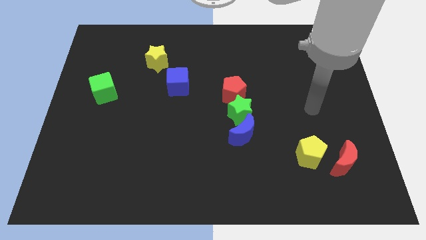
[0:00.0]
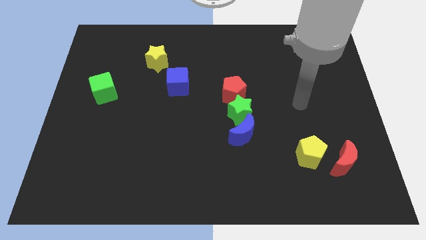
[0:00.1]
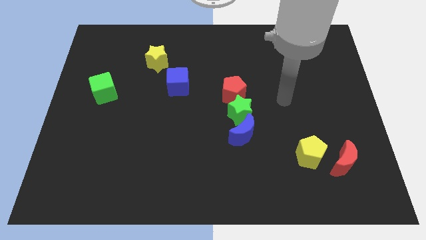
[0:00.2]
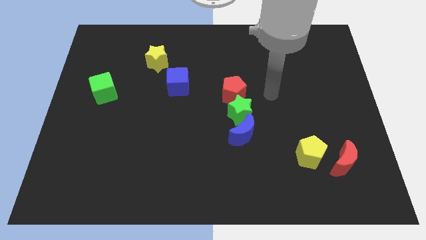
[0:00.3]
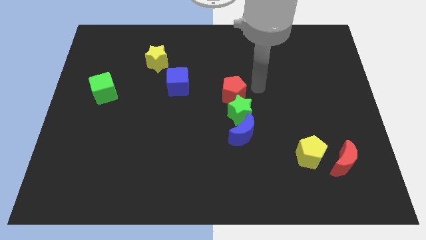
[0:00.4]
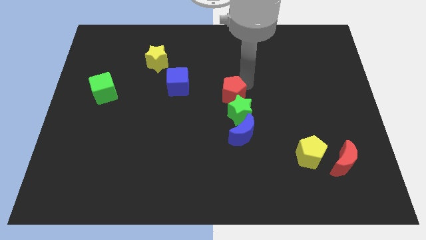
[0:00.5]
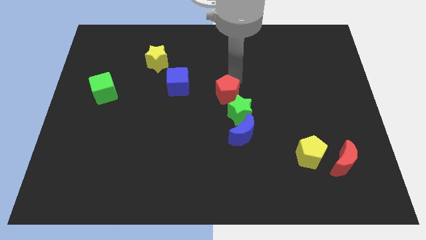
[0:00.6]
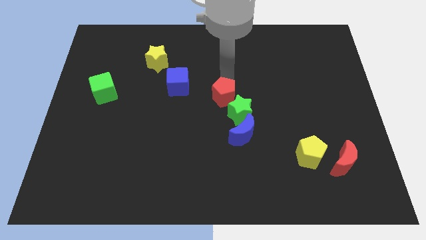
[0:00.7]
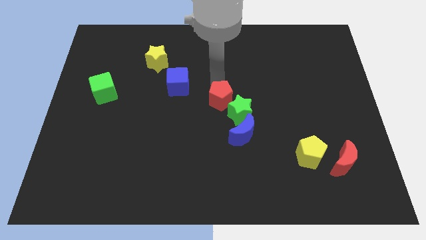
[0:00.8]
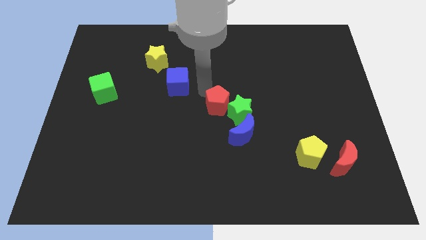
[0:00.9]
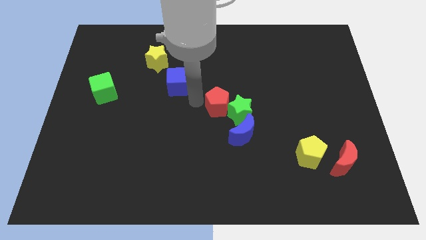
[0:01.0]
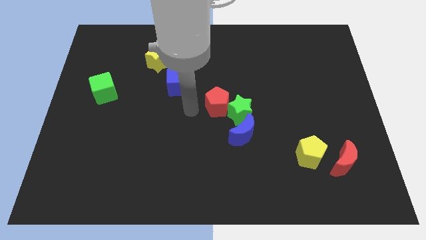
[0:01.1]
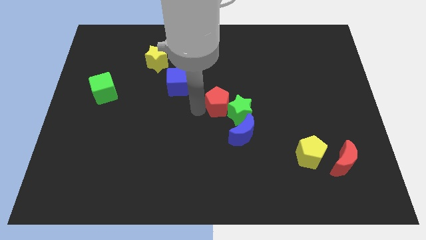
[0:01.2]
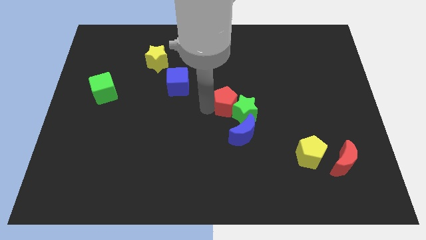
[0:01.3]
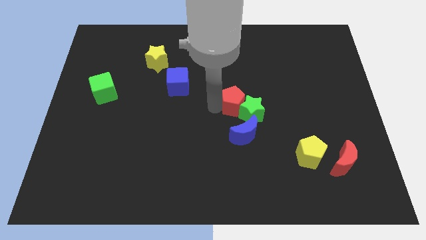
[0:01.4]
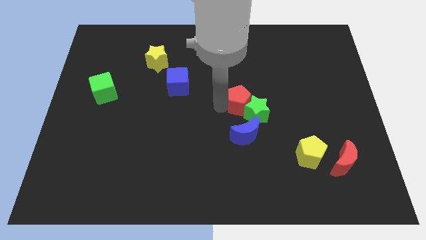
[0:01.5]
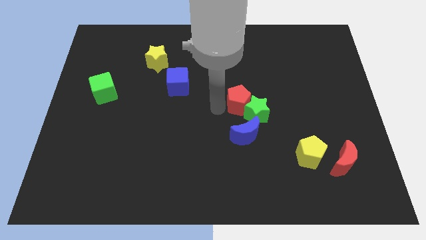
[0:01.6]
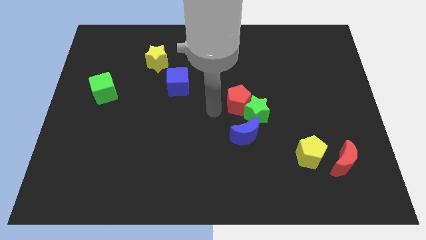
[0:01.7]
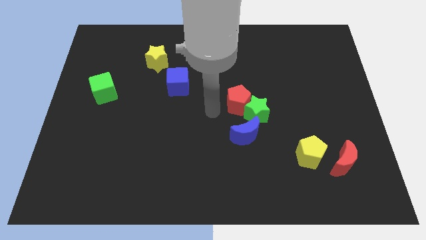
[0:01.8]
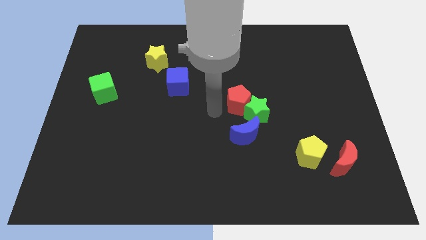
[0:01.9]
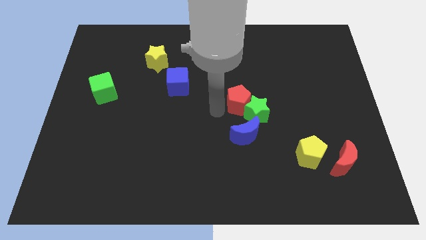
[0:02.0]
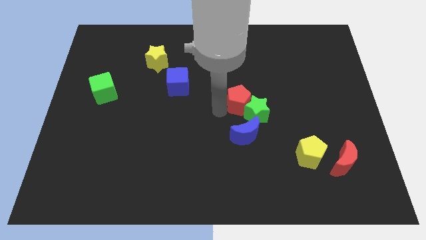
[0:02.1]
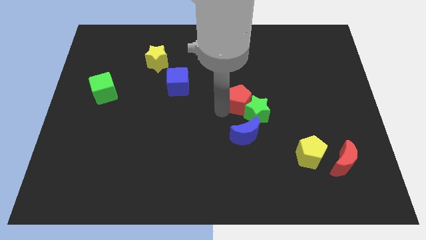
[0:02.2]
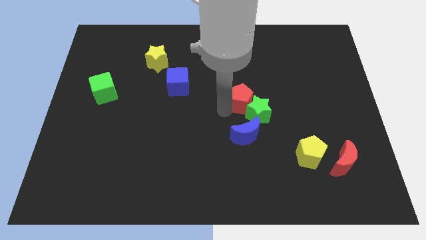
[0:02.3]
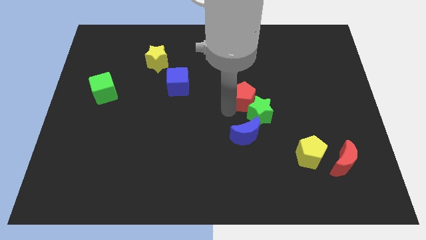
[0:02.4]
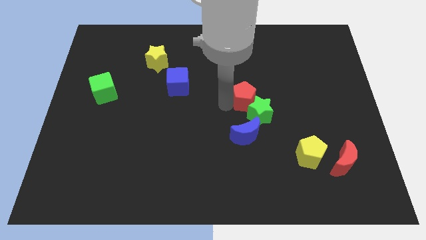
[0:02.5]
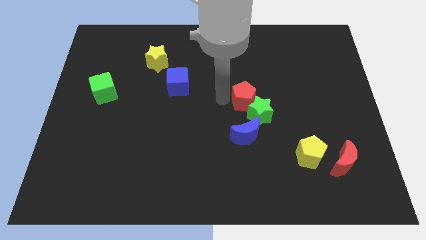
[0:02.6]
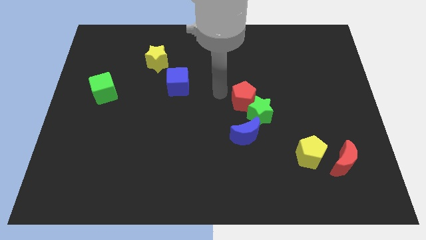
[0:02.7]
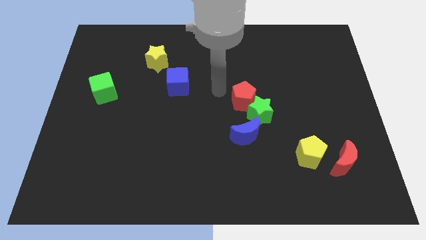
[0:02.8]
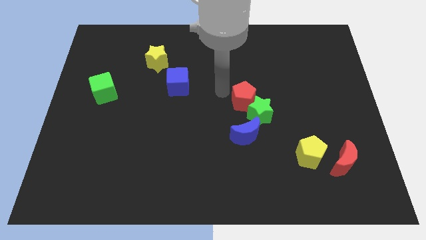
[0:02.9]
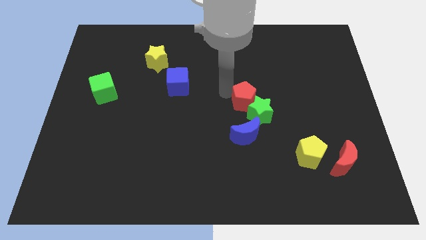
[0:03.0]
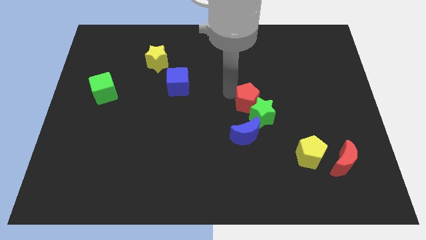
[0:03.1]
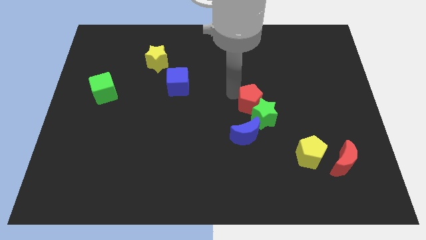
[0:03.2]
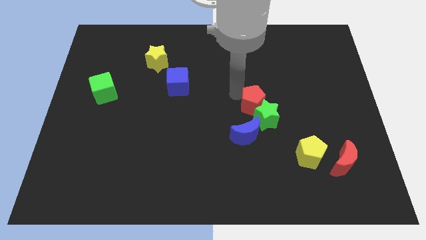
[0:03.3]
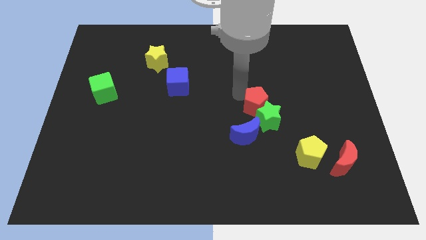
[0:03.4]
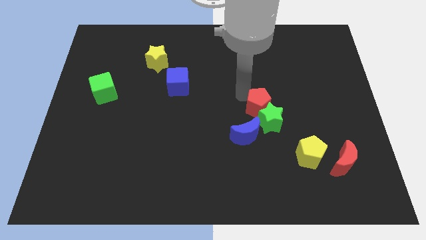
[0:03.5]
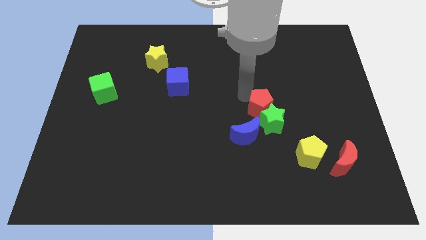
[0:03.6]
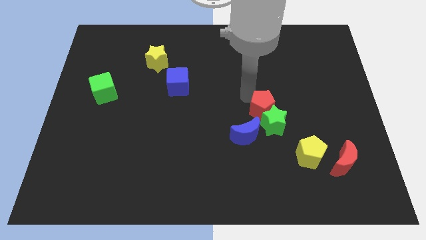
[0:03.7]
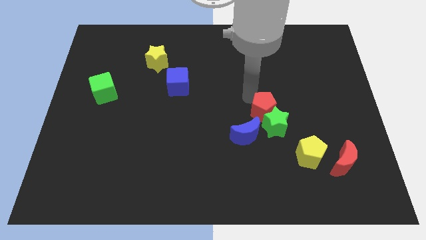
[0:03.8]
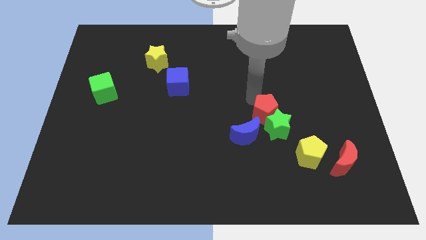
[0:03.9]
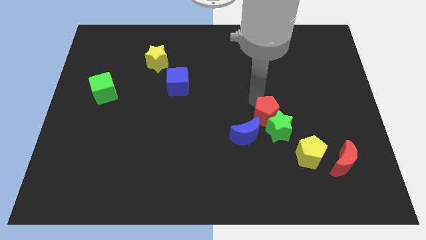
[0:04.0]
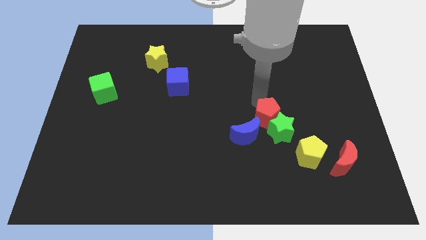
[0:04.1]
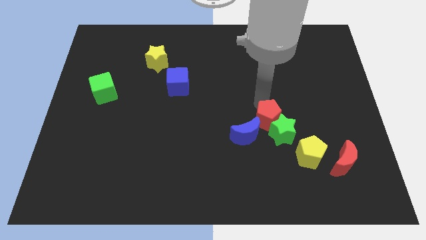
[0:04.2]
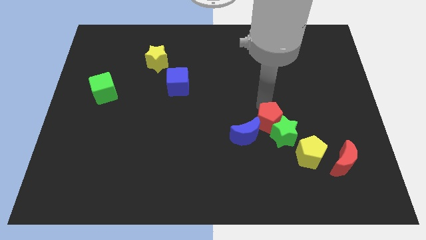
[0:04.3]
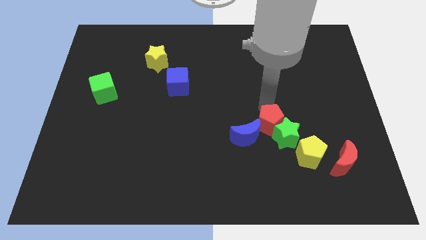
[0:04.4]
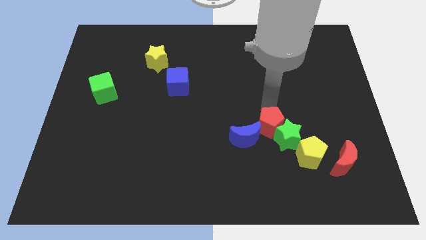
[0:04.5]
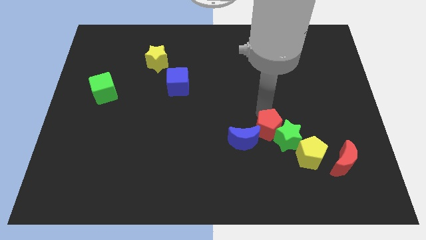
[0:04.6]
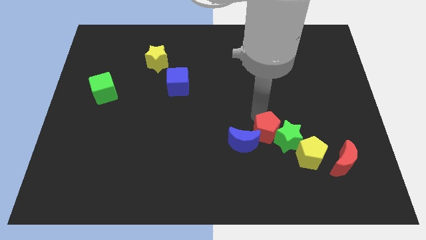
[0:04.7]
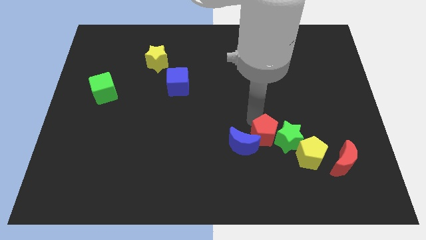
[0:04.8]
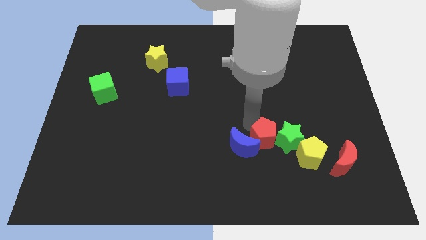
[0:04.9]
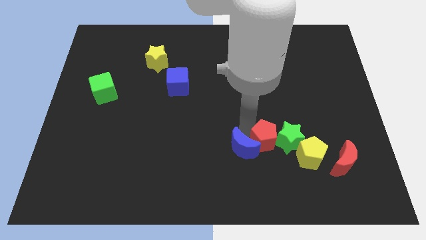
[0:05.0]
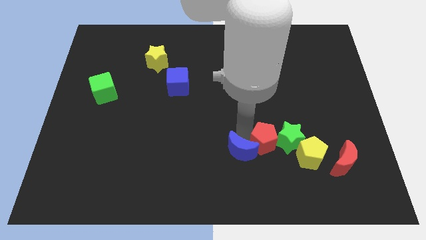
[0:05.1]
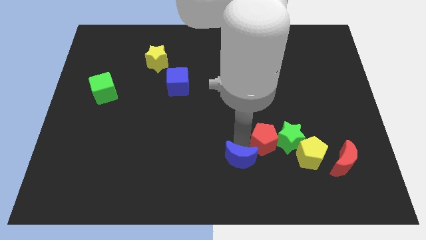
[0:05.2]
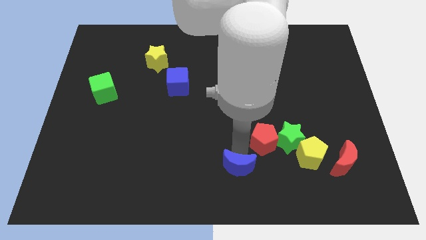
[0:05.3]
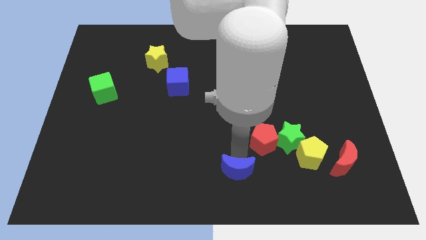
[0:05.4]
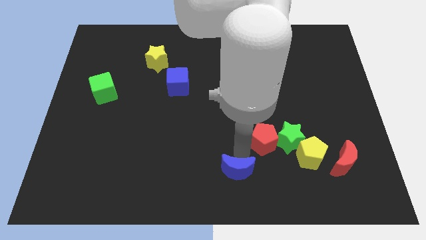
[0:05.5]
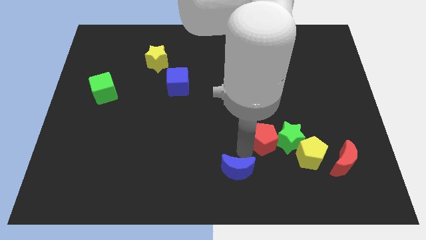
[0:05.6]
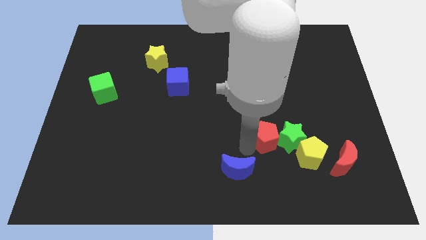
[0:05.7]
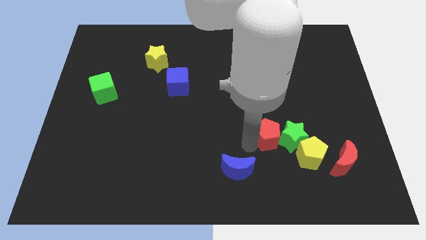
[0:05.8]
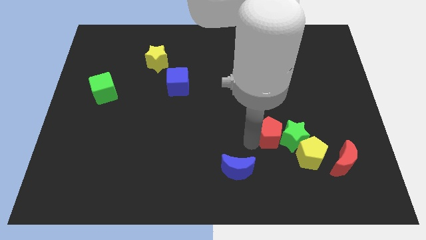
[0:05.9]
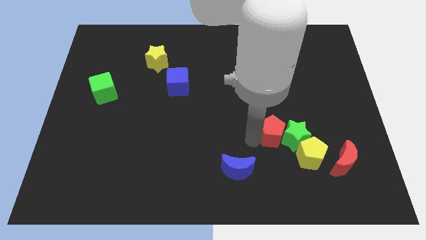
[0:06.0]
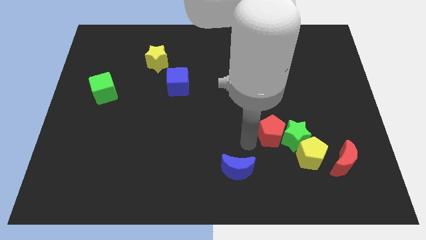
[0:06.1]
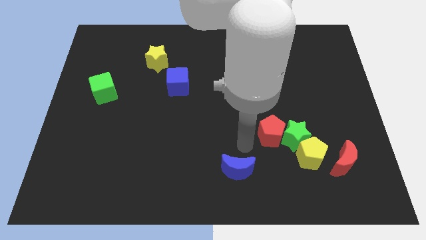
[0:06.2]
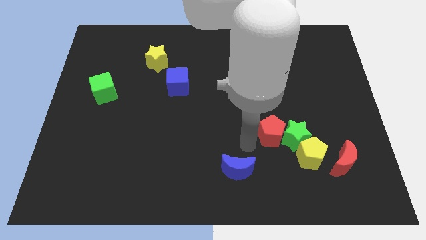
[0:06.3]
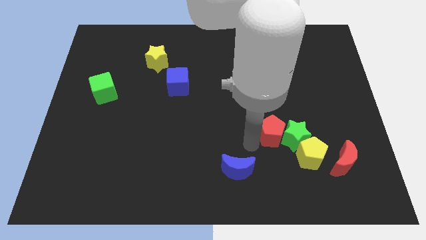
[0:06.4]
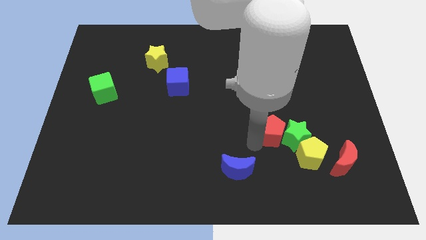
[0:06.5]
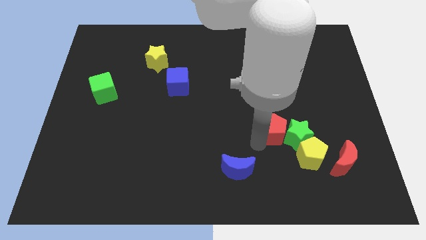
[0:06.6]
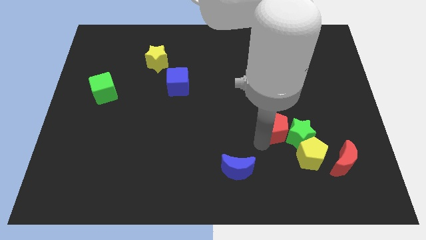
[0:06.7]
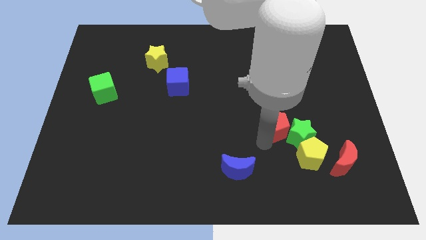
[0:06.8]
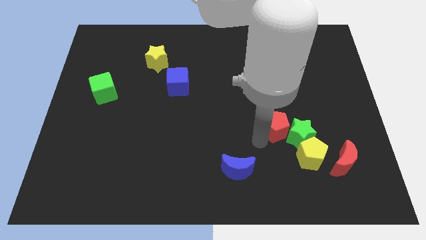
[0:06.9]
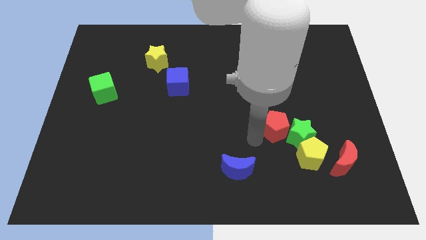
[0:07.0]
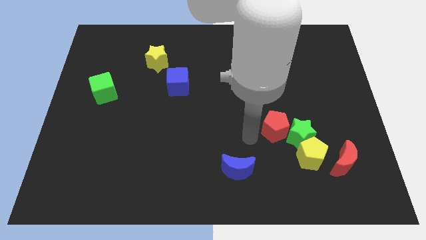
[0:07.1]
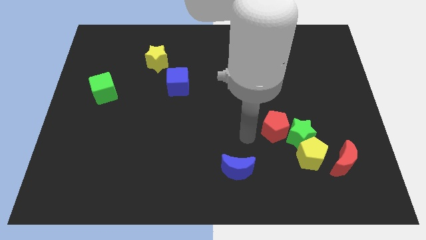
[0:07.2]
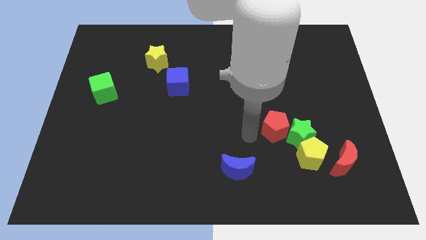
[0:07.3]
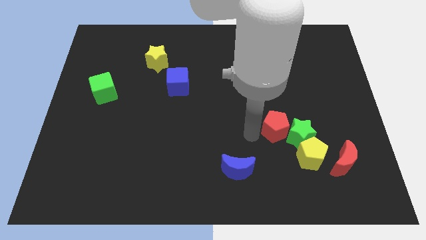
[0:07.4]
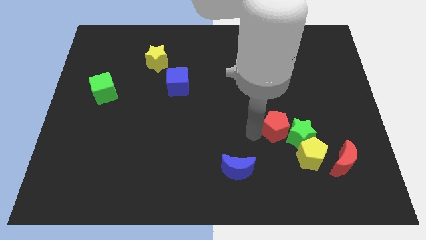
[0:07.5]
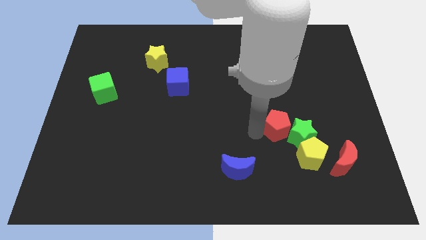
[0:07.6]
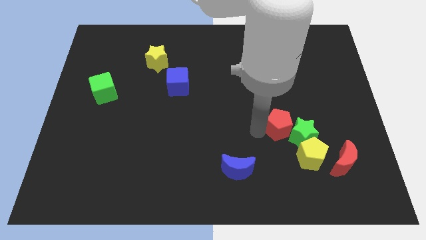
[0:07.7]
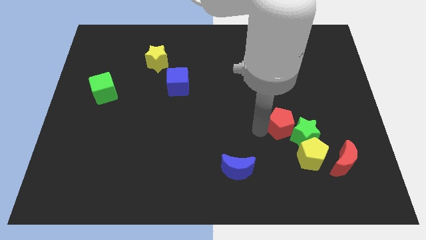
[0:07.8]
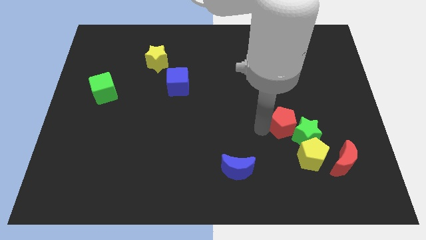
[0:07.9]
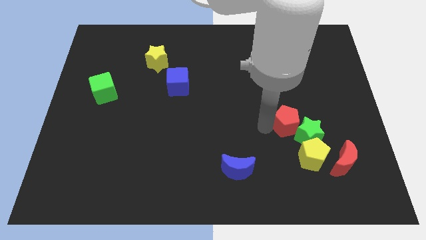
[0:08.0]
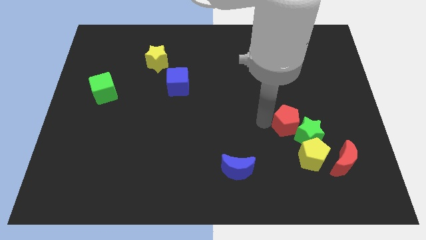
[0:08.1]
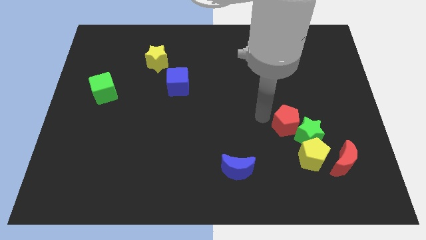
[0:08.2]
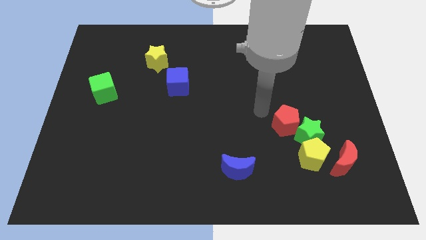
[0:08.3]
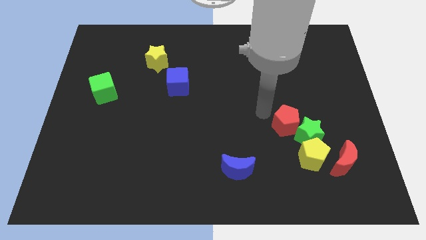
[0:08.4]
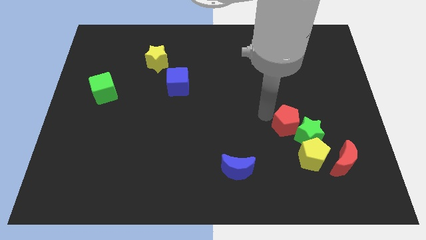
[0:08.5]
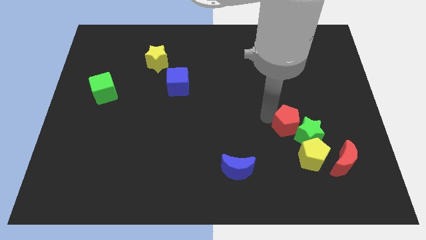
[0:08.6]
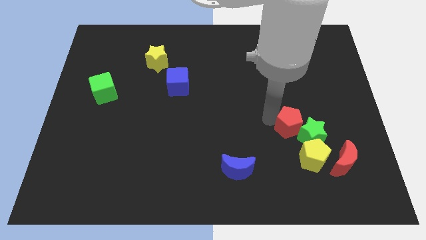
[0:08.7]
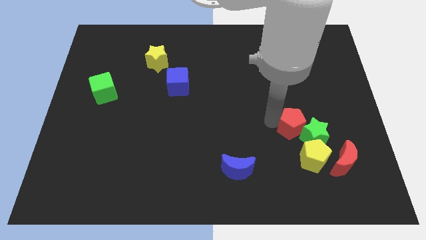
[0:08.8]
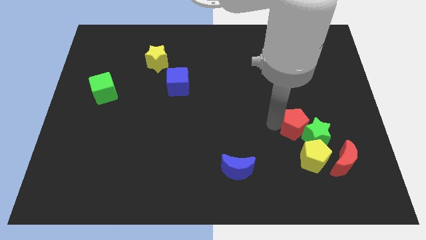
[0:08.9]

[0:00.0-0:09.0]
slide the red pentagon to the top left of the red moon
